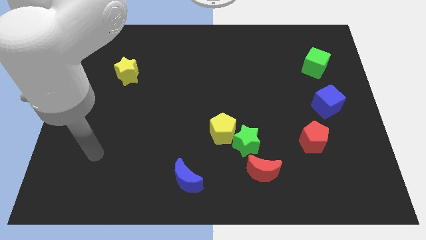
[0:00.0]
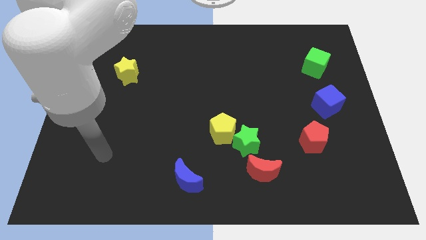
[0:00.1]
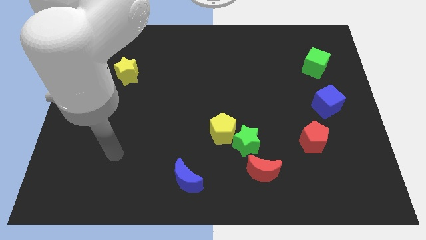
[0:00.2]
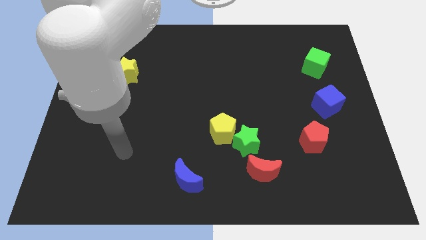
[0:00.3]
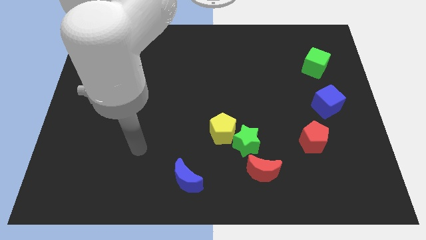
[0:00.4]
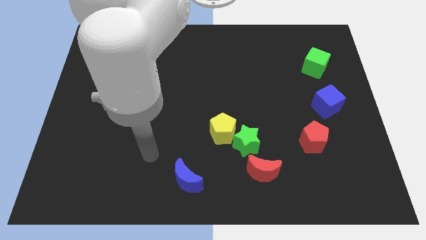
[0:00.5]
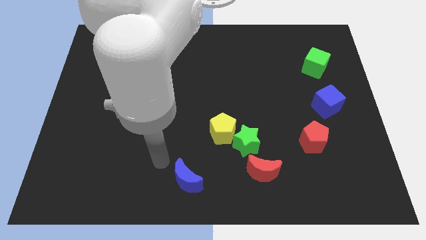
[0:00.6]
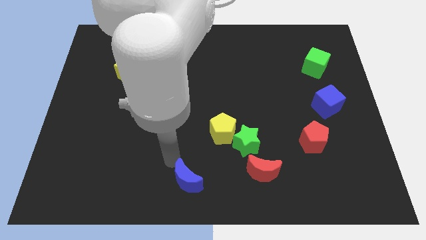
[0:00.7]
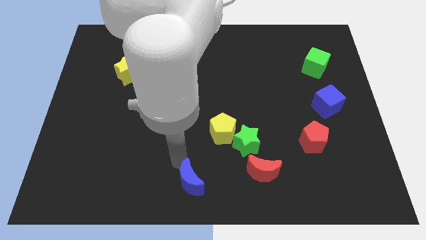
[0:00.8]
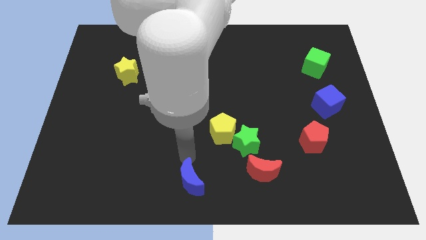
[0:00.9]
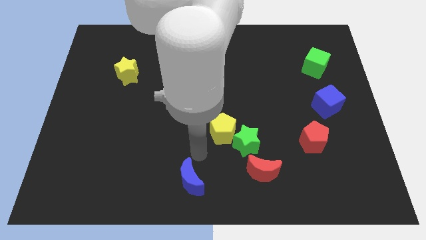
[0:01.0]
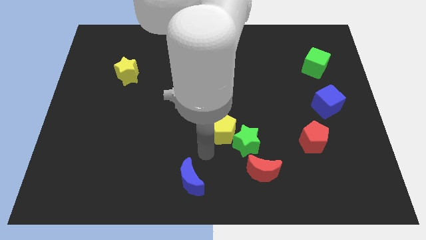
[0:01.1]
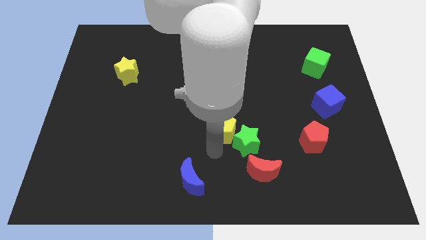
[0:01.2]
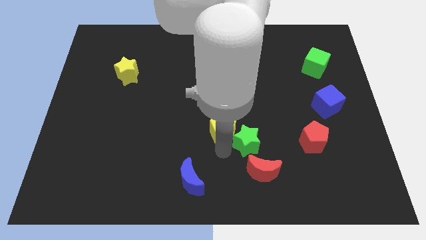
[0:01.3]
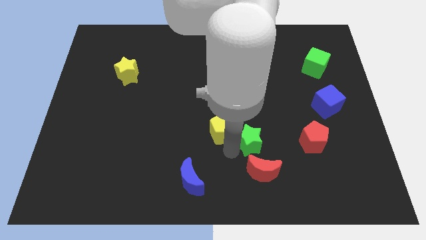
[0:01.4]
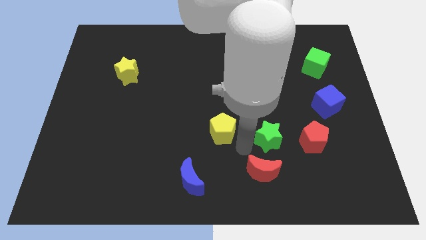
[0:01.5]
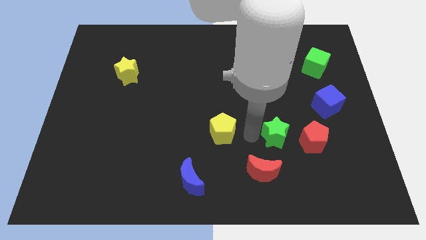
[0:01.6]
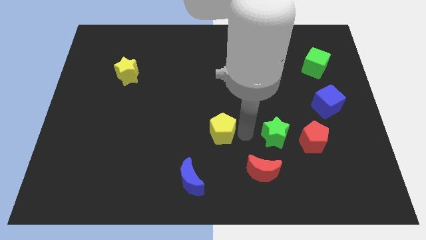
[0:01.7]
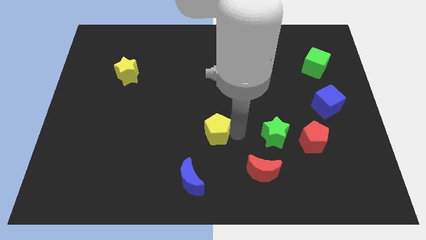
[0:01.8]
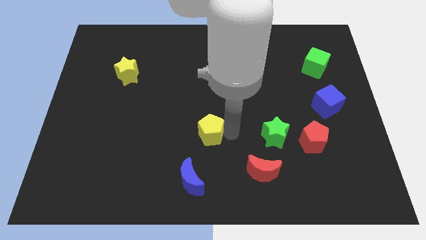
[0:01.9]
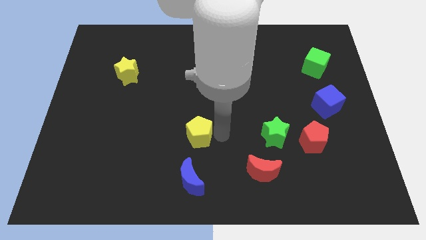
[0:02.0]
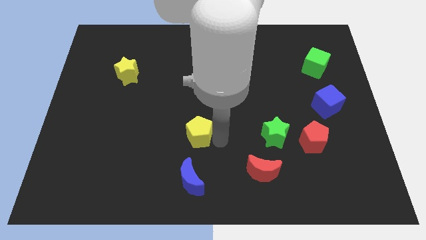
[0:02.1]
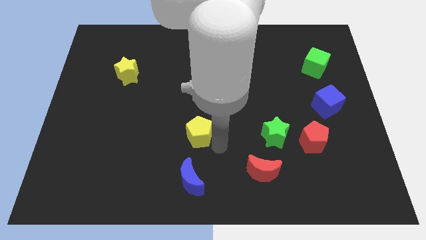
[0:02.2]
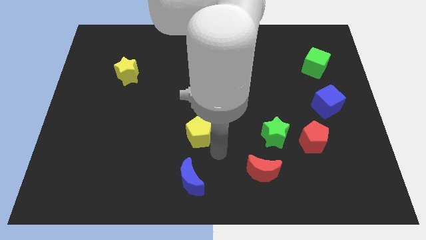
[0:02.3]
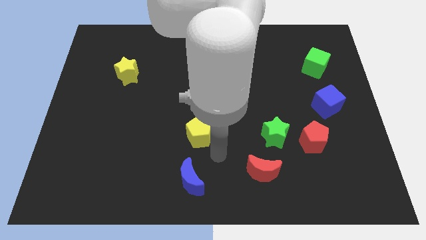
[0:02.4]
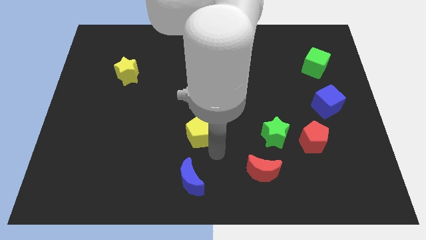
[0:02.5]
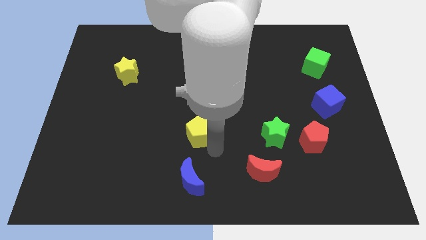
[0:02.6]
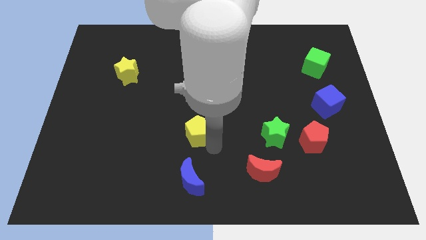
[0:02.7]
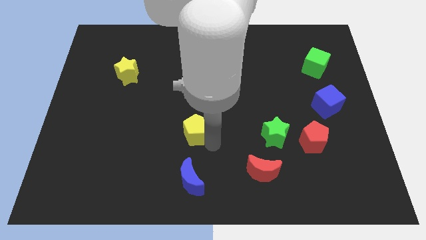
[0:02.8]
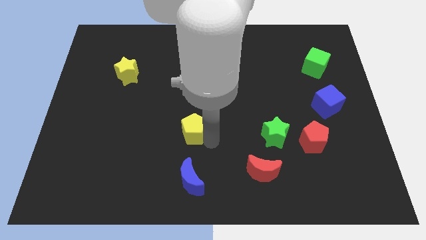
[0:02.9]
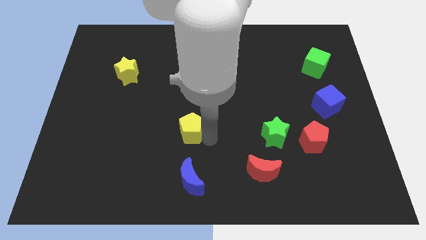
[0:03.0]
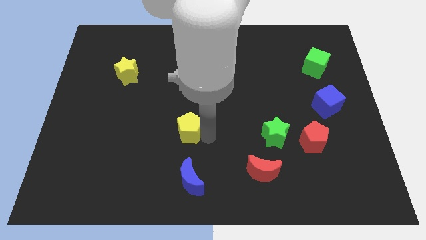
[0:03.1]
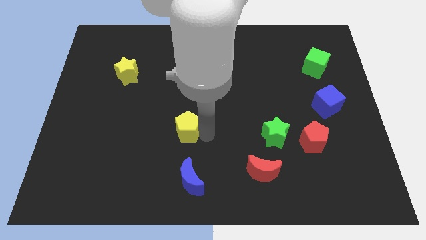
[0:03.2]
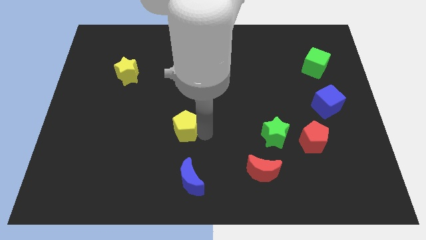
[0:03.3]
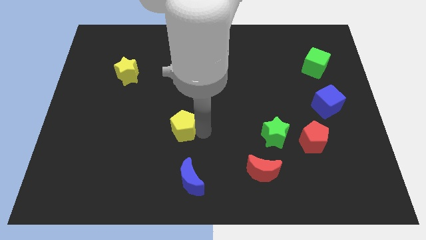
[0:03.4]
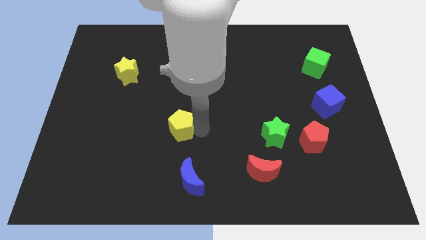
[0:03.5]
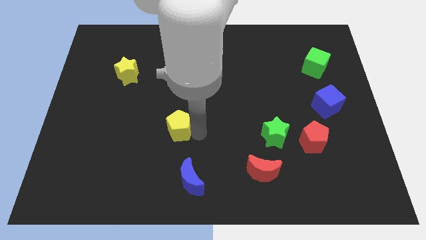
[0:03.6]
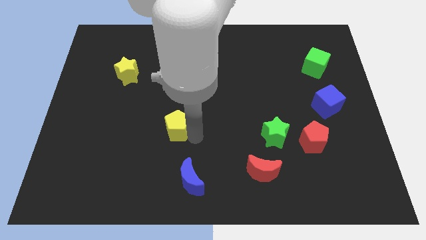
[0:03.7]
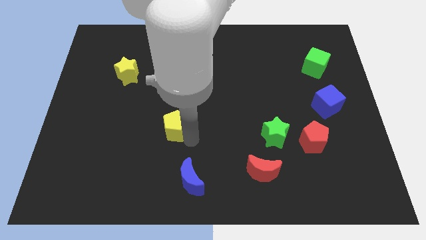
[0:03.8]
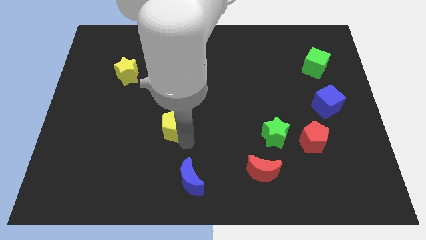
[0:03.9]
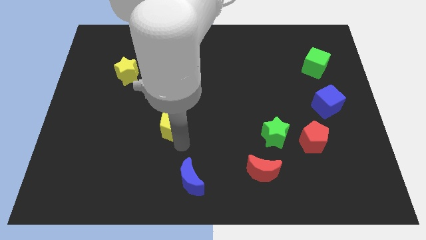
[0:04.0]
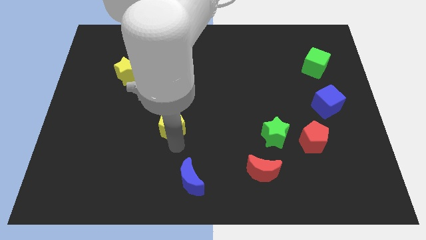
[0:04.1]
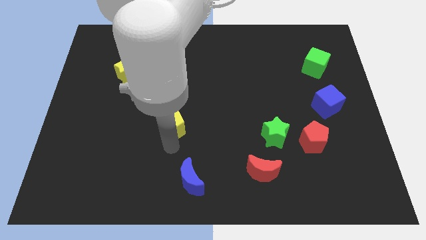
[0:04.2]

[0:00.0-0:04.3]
push the yellow pentagon diagonally up and to the left a bit

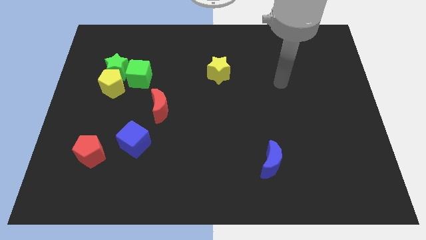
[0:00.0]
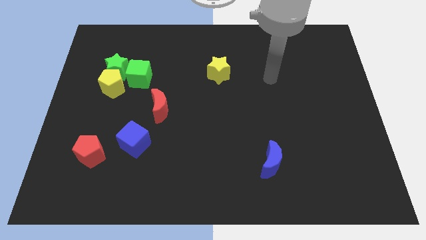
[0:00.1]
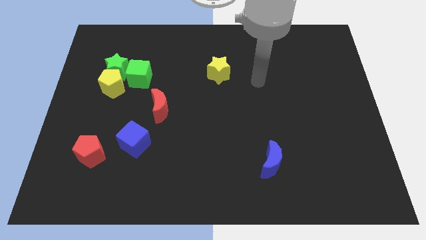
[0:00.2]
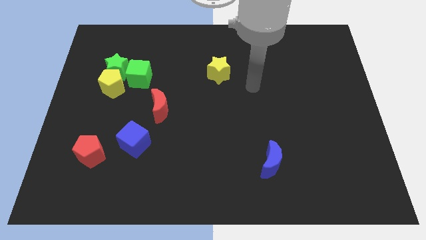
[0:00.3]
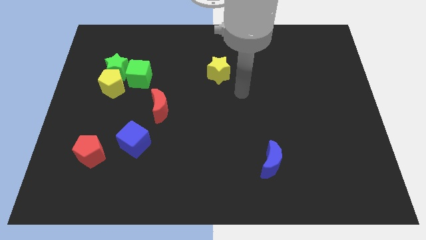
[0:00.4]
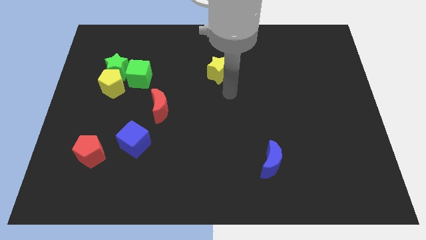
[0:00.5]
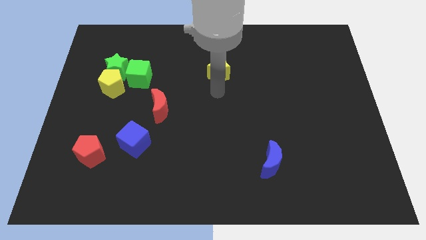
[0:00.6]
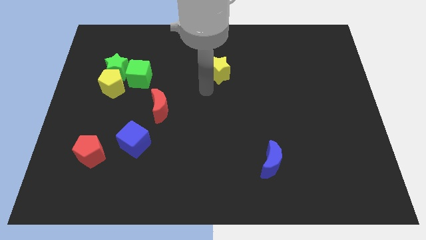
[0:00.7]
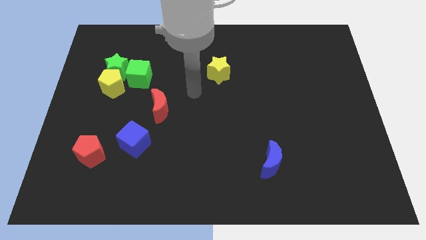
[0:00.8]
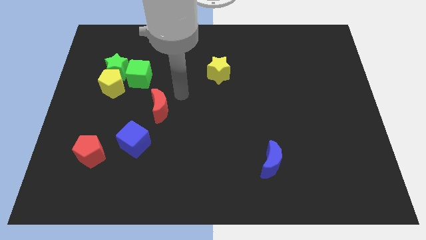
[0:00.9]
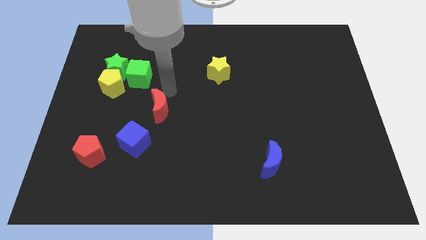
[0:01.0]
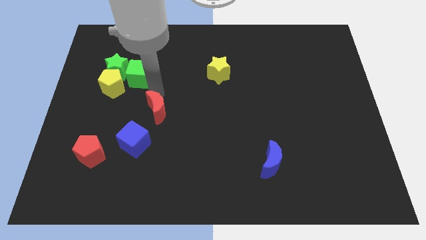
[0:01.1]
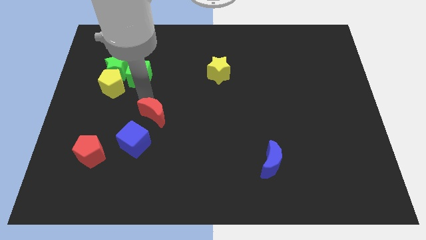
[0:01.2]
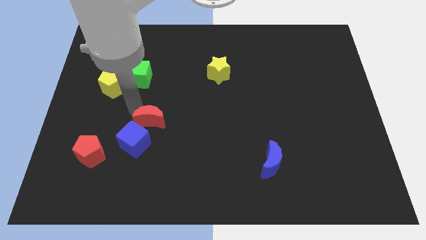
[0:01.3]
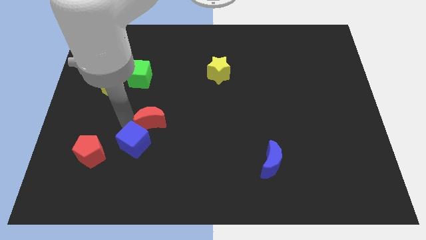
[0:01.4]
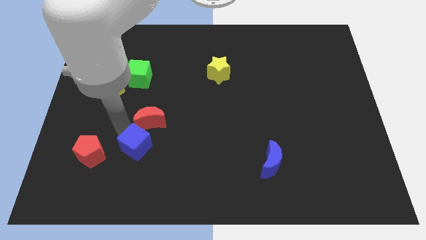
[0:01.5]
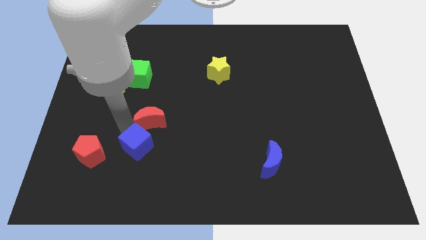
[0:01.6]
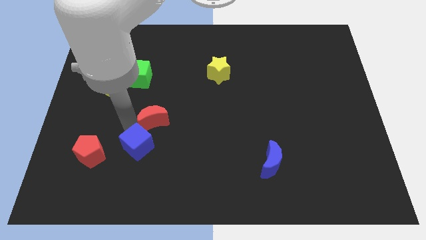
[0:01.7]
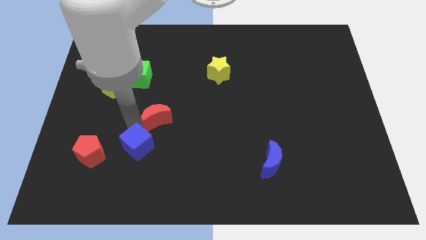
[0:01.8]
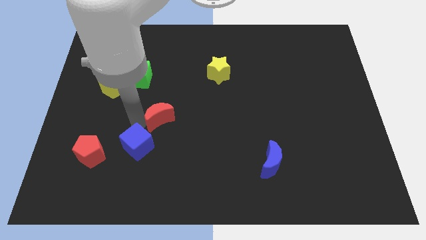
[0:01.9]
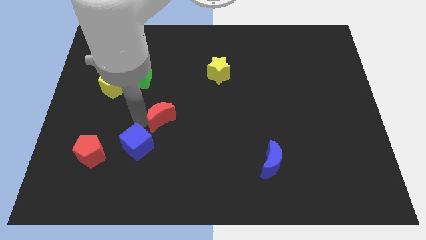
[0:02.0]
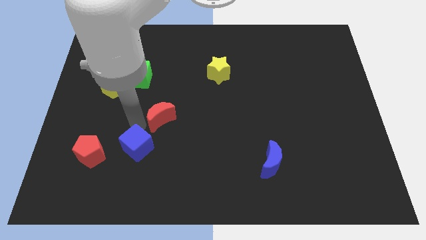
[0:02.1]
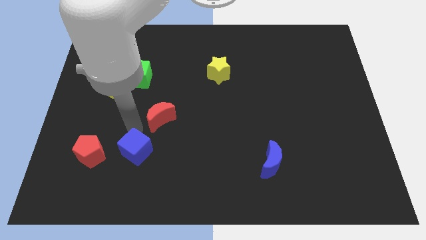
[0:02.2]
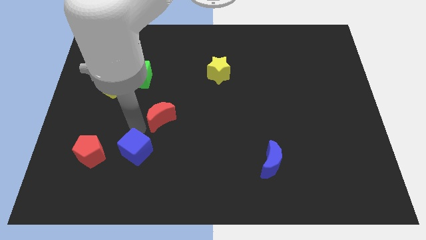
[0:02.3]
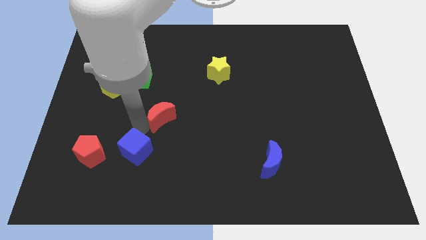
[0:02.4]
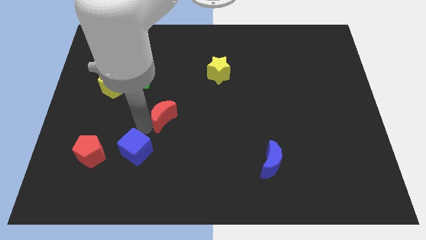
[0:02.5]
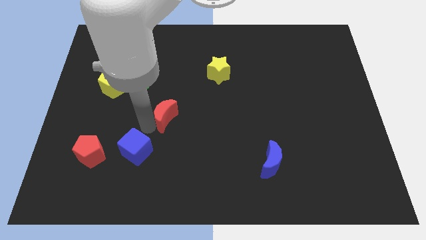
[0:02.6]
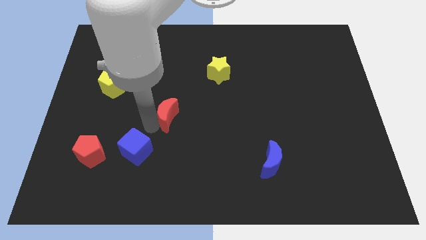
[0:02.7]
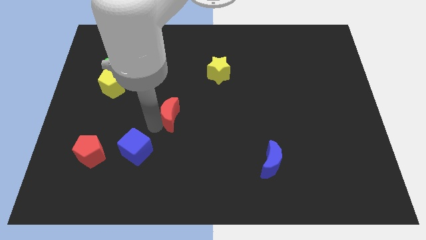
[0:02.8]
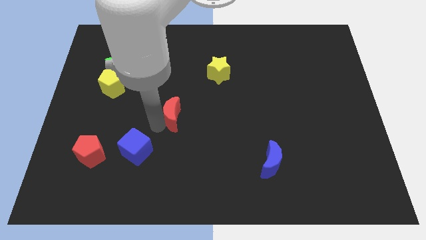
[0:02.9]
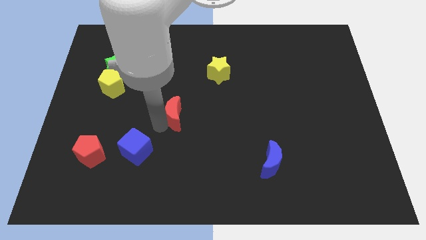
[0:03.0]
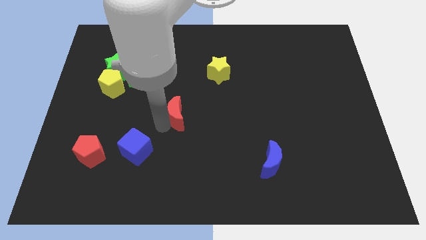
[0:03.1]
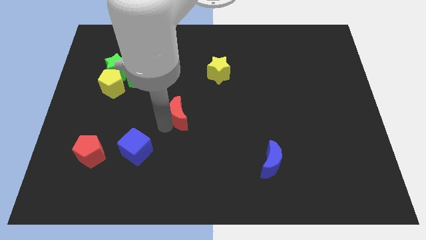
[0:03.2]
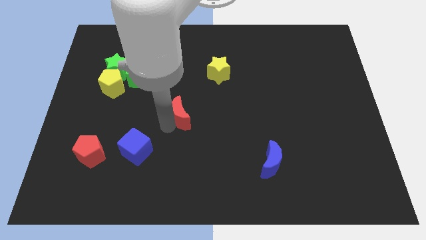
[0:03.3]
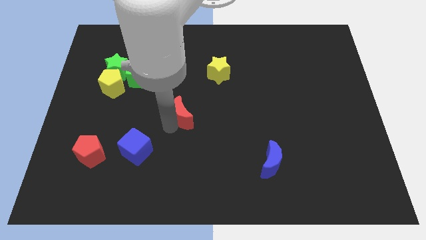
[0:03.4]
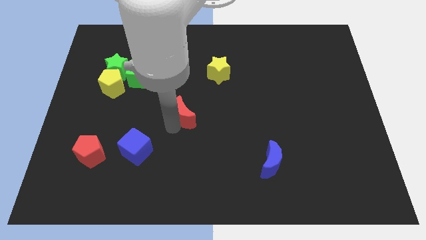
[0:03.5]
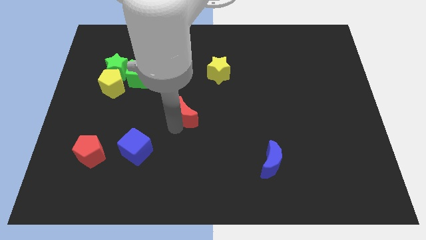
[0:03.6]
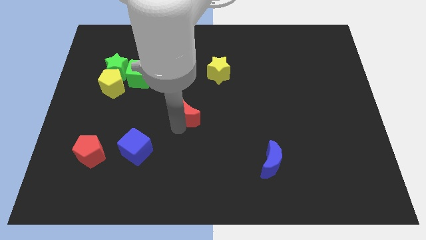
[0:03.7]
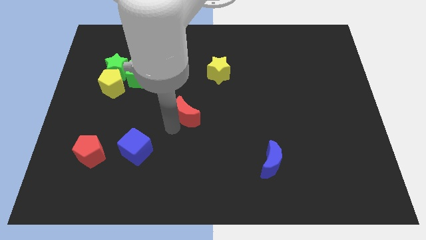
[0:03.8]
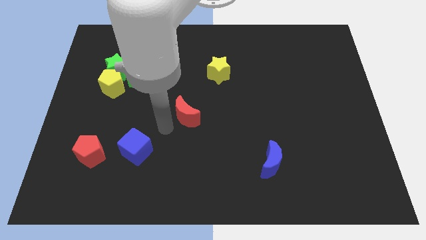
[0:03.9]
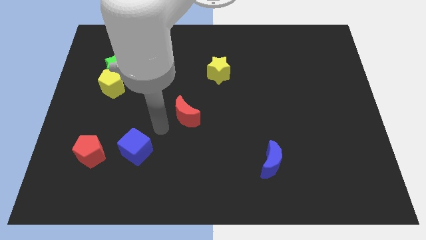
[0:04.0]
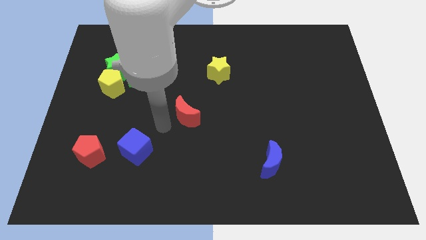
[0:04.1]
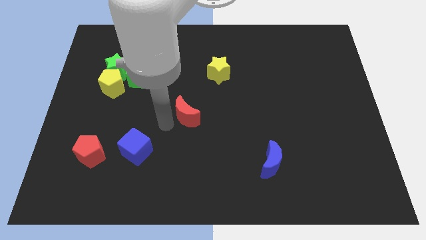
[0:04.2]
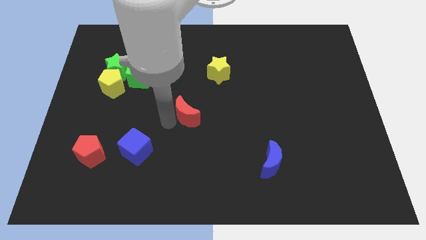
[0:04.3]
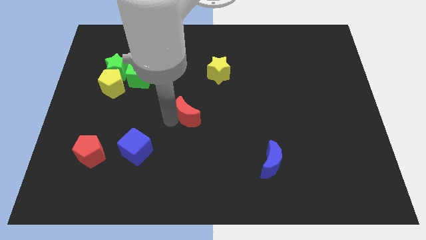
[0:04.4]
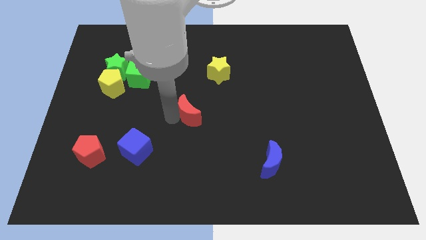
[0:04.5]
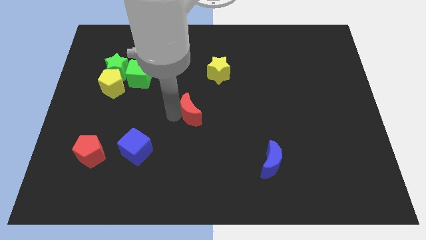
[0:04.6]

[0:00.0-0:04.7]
slide the red moon right somewhat
